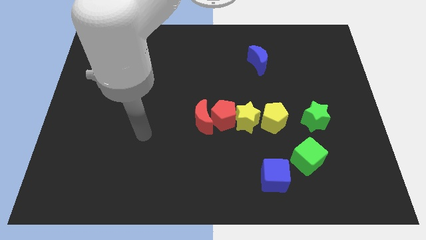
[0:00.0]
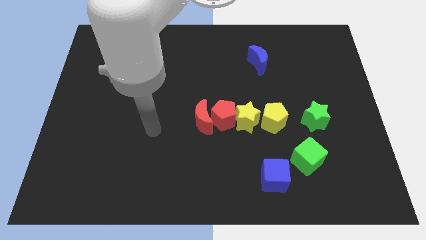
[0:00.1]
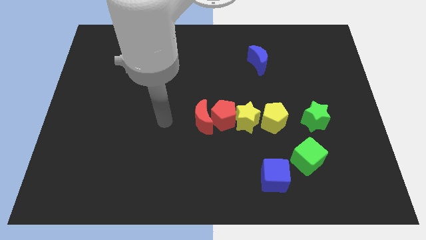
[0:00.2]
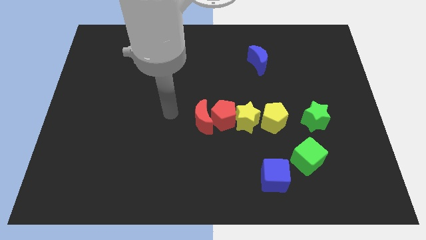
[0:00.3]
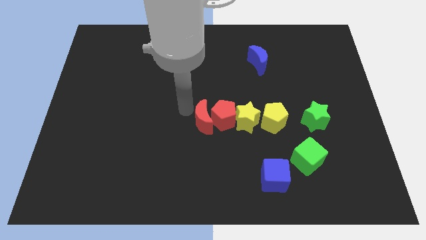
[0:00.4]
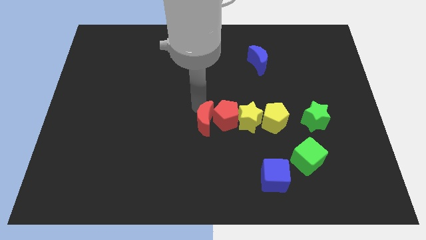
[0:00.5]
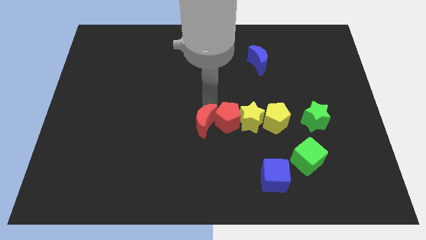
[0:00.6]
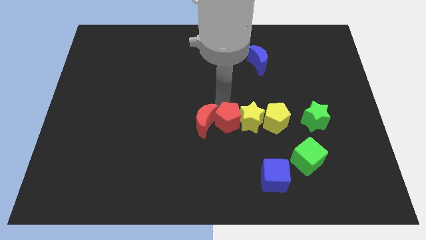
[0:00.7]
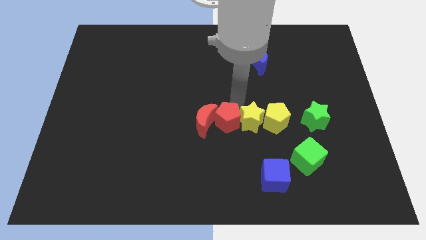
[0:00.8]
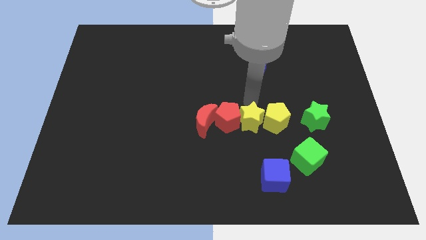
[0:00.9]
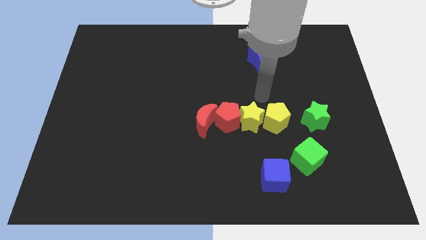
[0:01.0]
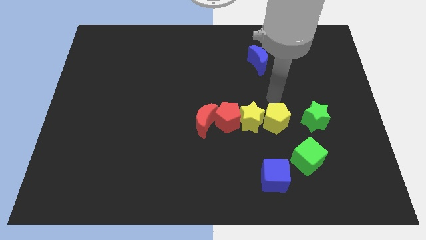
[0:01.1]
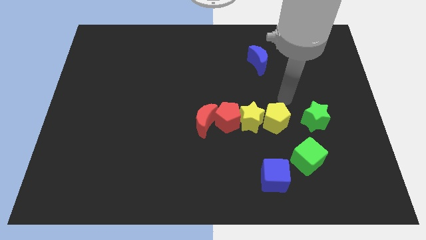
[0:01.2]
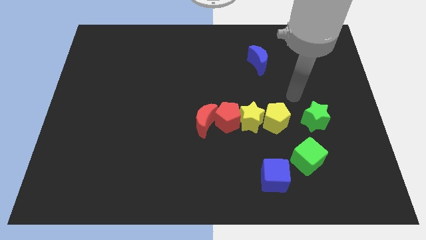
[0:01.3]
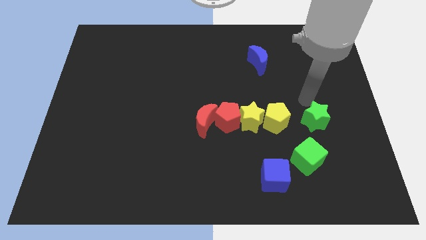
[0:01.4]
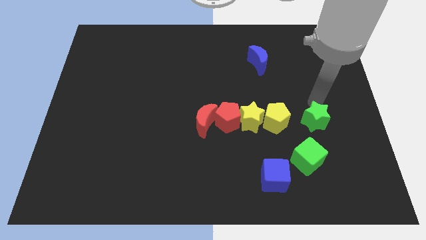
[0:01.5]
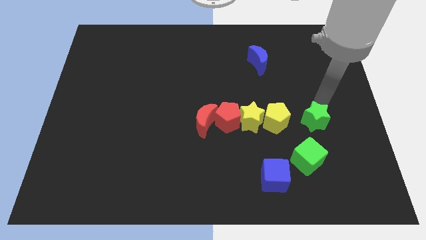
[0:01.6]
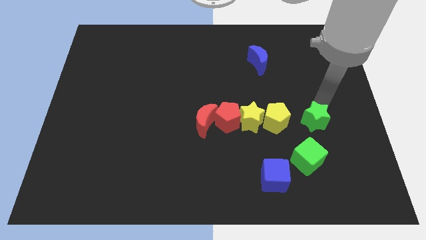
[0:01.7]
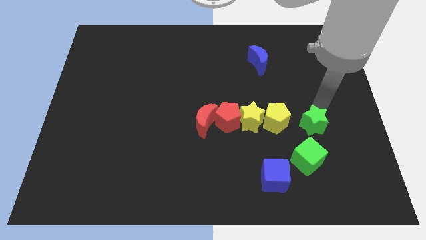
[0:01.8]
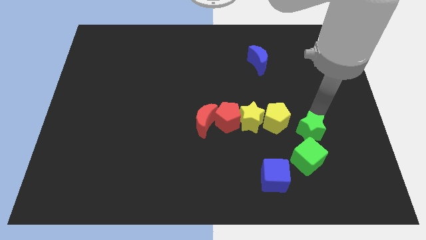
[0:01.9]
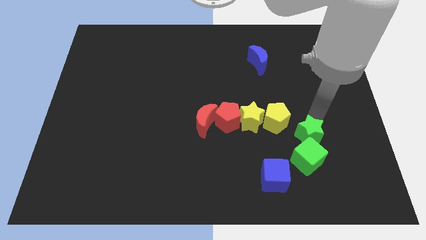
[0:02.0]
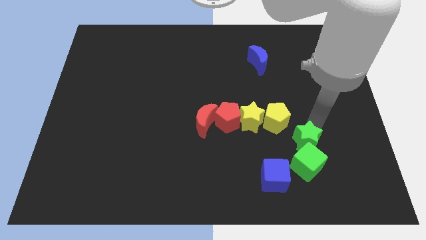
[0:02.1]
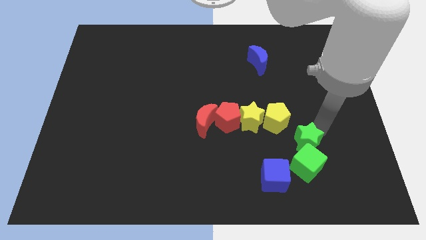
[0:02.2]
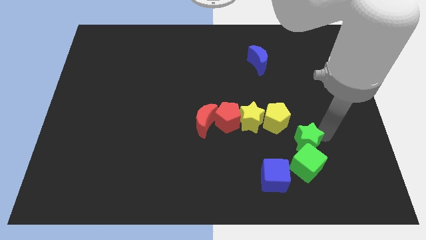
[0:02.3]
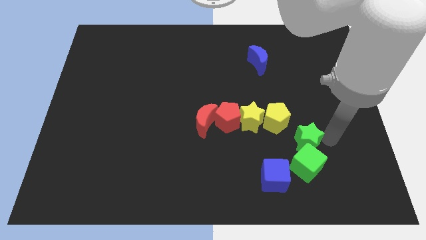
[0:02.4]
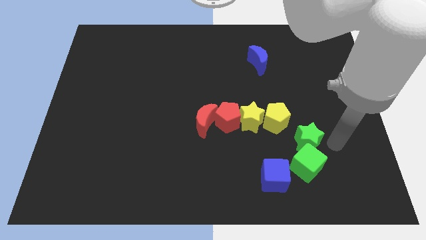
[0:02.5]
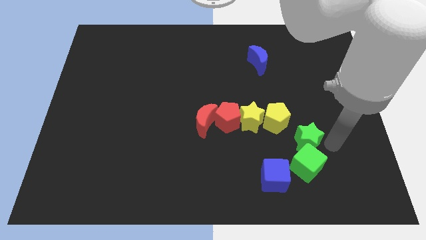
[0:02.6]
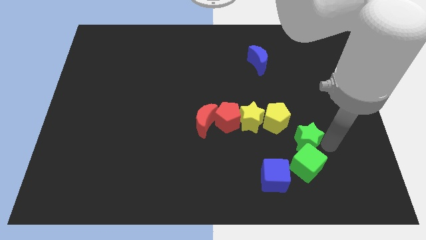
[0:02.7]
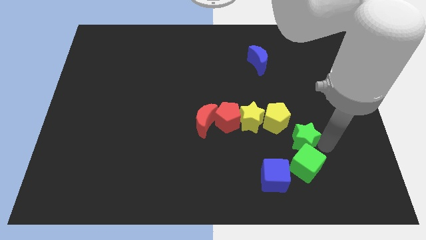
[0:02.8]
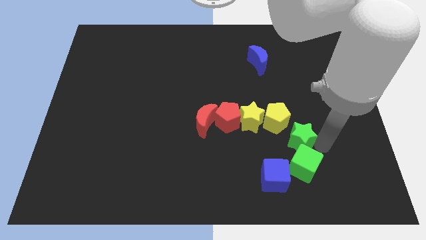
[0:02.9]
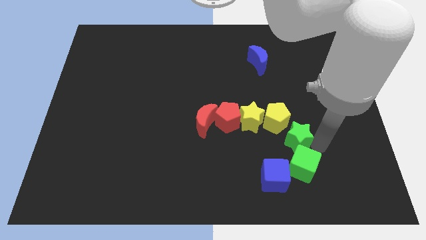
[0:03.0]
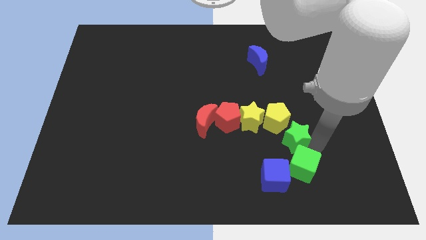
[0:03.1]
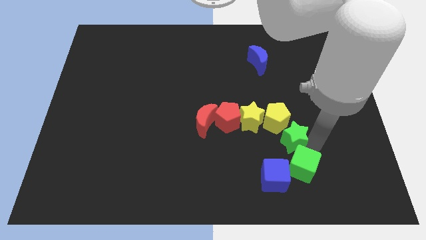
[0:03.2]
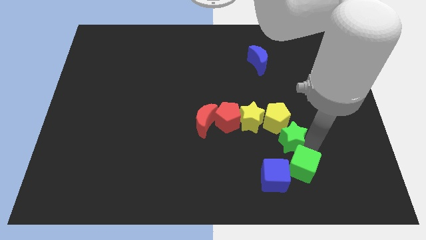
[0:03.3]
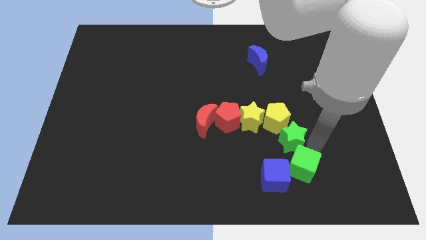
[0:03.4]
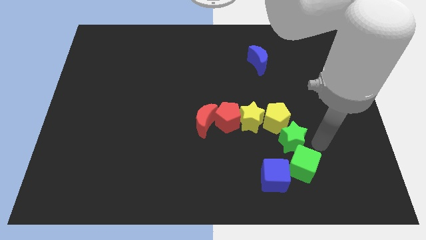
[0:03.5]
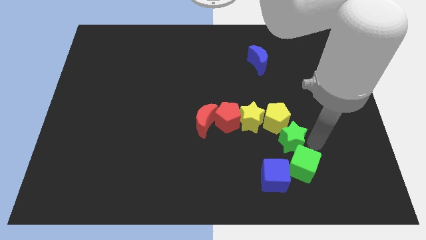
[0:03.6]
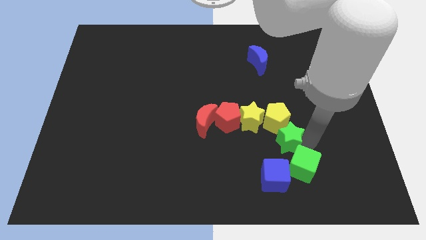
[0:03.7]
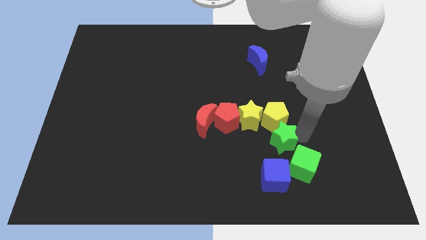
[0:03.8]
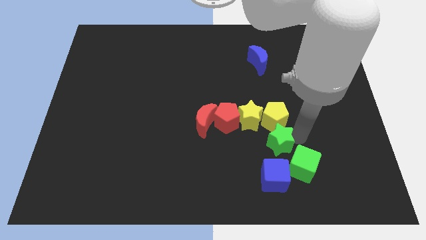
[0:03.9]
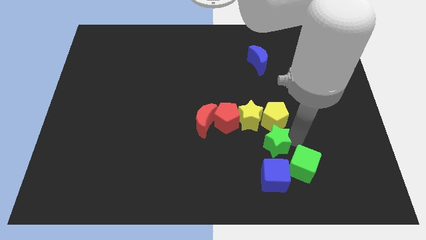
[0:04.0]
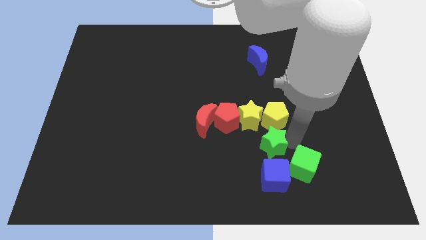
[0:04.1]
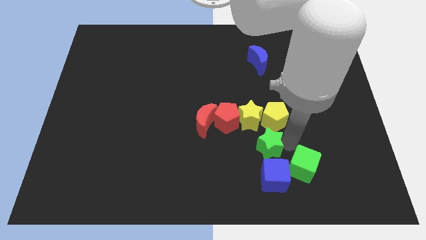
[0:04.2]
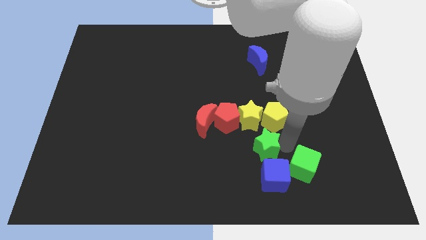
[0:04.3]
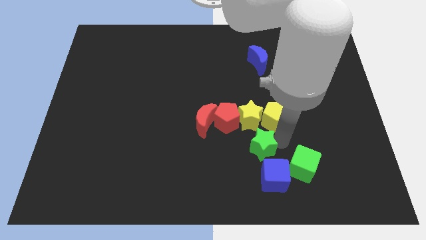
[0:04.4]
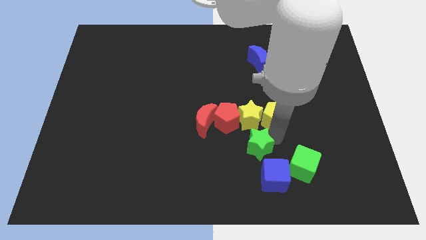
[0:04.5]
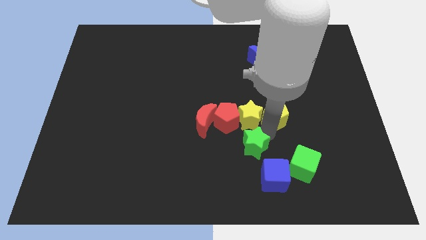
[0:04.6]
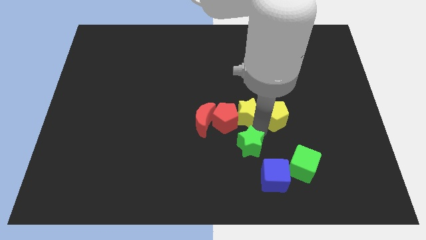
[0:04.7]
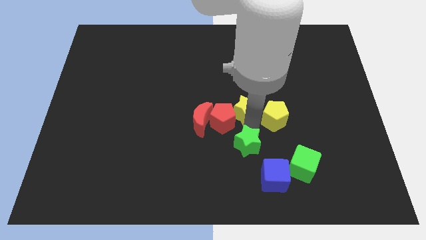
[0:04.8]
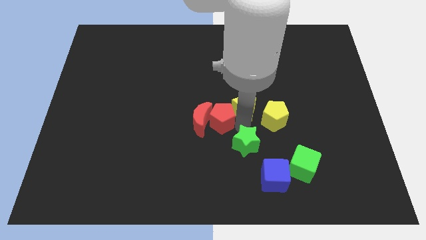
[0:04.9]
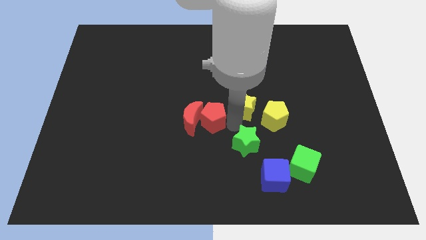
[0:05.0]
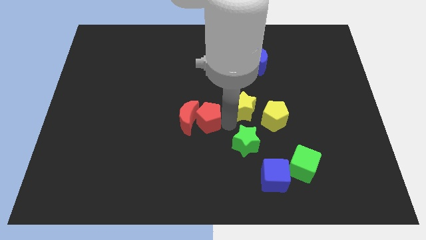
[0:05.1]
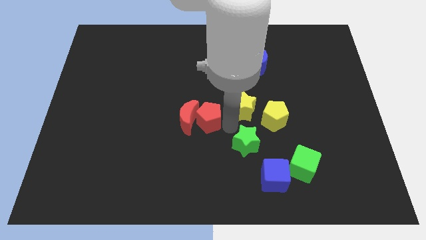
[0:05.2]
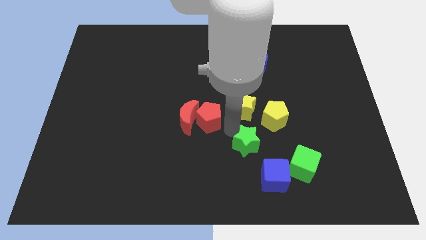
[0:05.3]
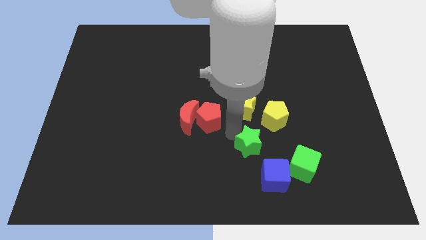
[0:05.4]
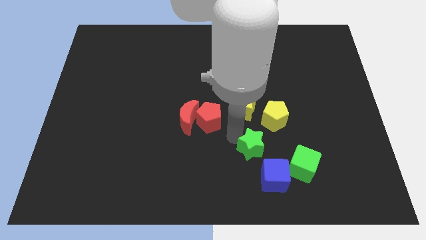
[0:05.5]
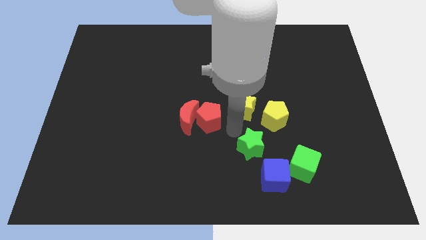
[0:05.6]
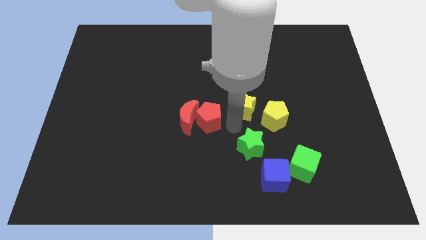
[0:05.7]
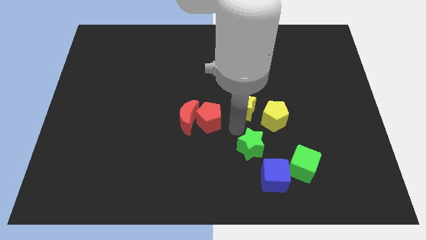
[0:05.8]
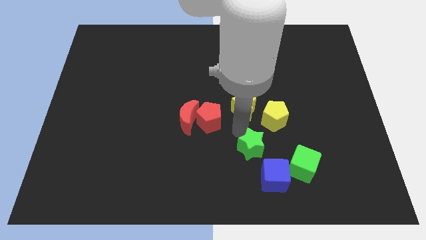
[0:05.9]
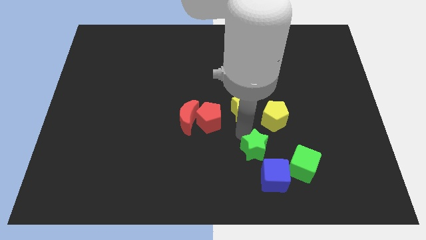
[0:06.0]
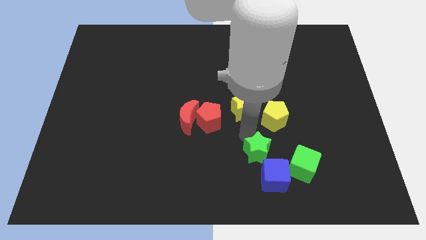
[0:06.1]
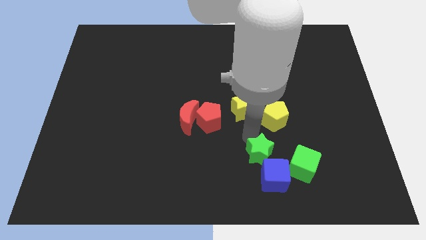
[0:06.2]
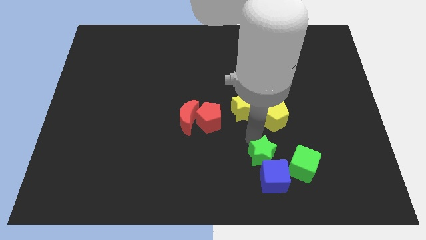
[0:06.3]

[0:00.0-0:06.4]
move the green star to the blue cube
